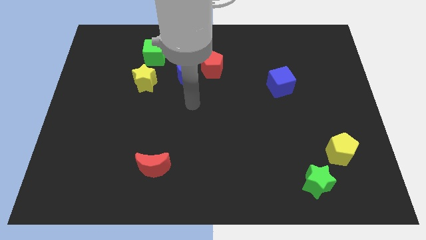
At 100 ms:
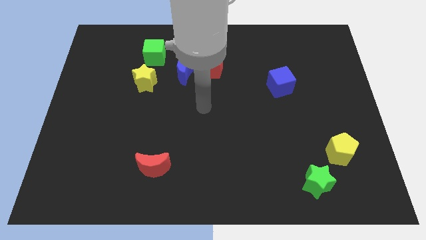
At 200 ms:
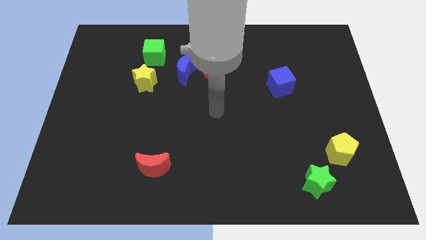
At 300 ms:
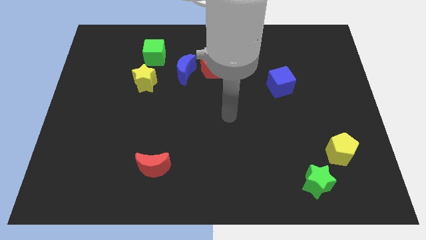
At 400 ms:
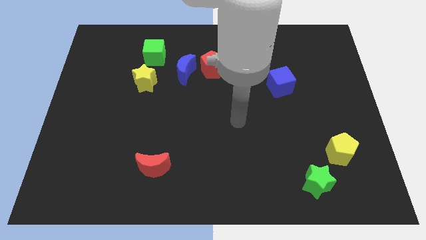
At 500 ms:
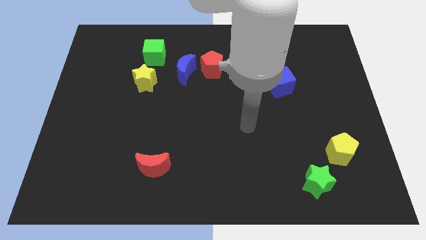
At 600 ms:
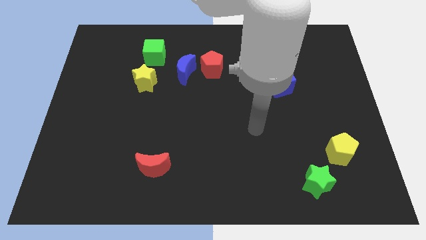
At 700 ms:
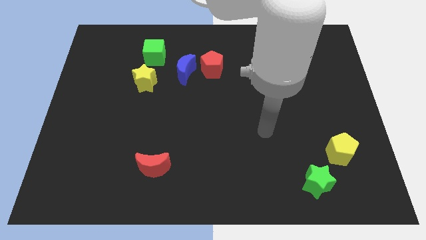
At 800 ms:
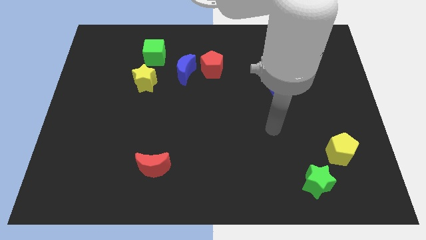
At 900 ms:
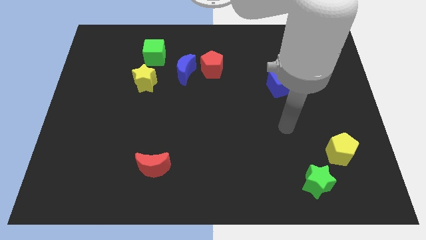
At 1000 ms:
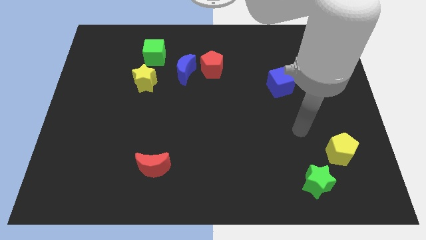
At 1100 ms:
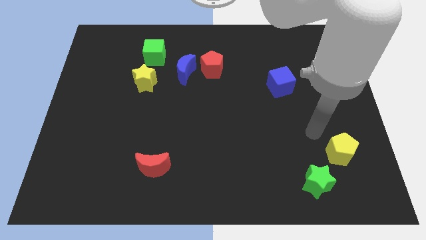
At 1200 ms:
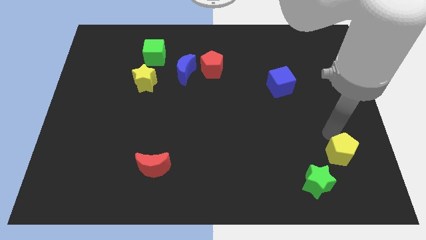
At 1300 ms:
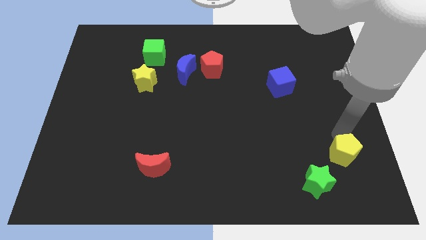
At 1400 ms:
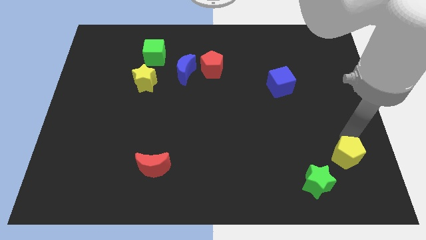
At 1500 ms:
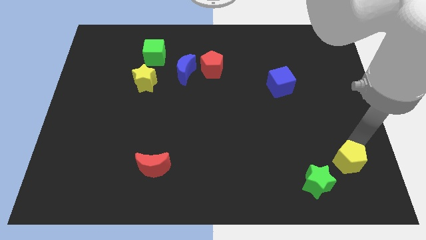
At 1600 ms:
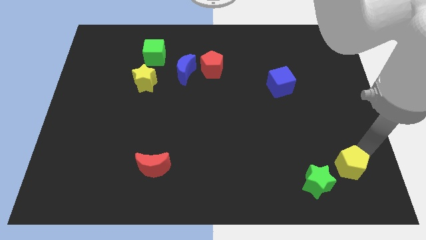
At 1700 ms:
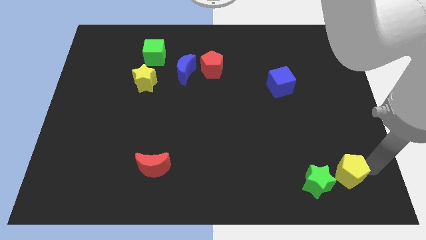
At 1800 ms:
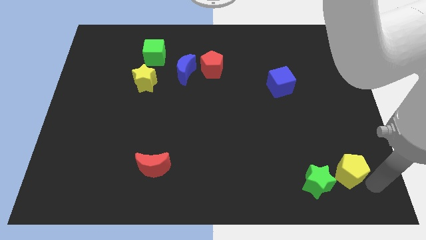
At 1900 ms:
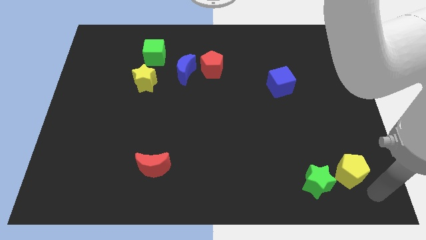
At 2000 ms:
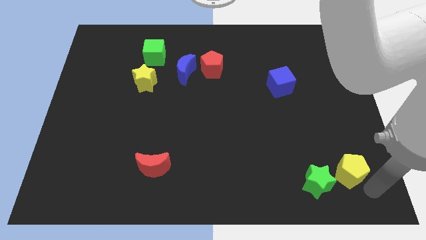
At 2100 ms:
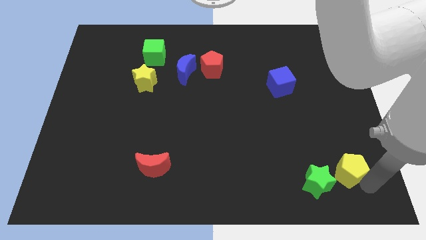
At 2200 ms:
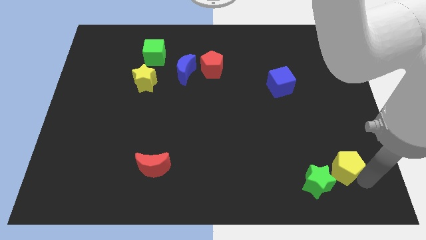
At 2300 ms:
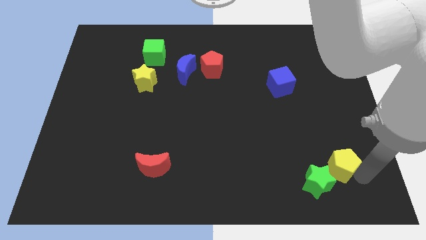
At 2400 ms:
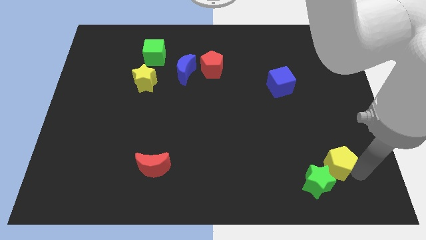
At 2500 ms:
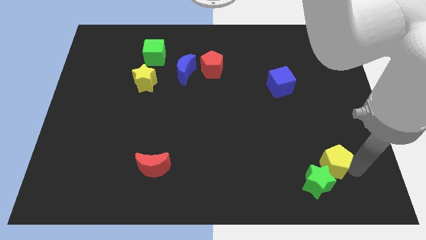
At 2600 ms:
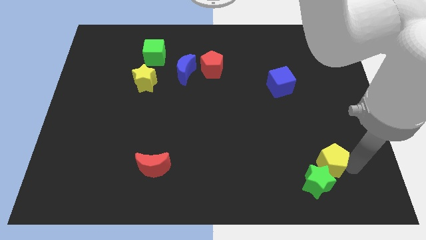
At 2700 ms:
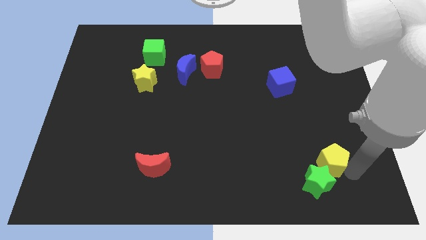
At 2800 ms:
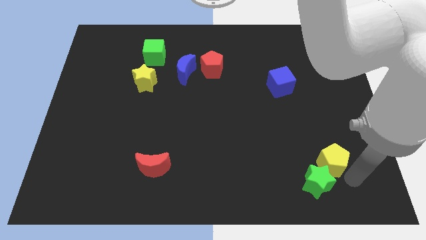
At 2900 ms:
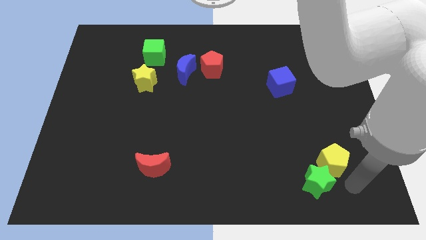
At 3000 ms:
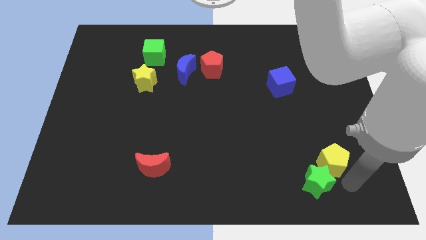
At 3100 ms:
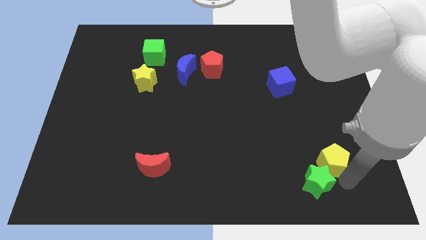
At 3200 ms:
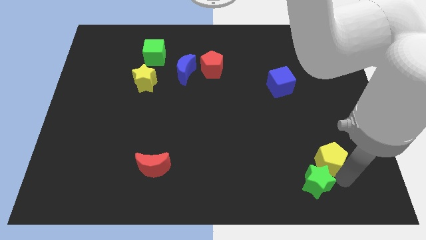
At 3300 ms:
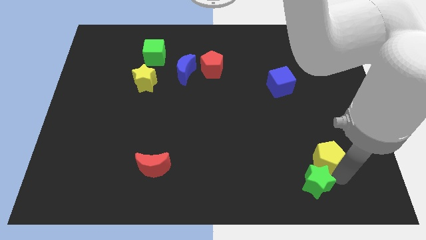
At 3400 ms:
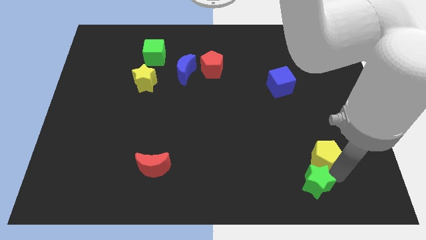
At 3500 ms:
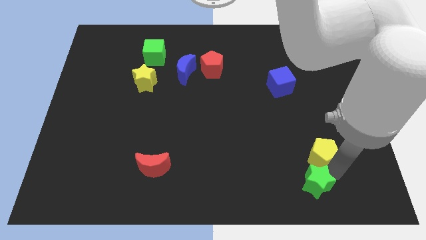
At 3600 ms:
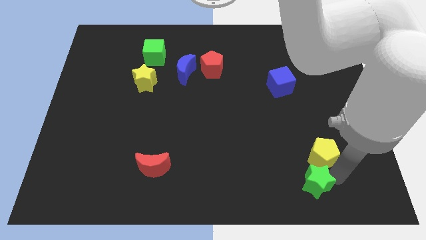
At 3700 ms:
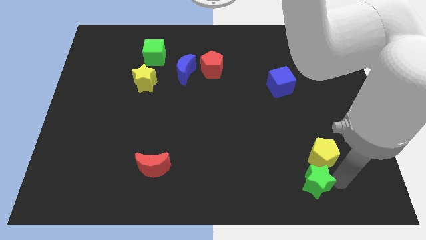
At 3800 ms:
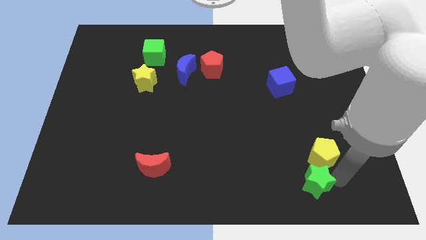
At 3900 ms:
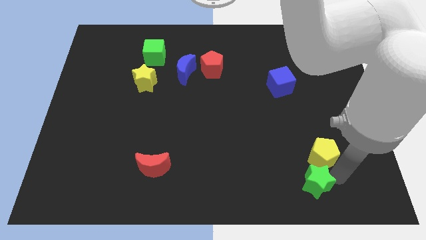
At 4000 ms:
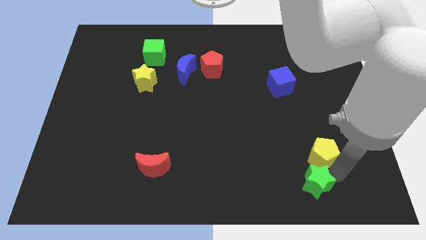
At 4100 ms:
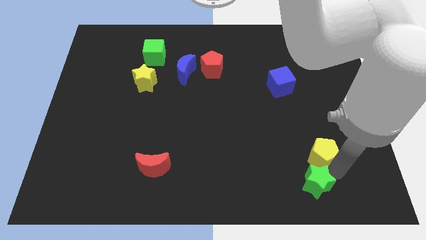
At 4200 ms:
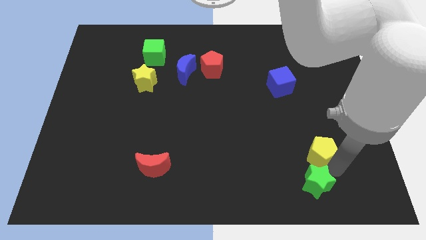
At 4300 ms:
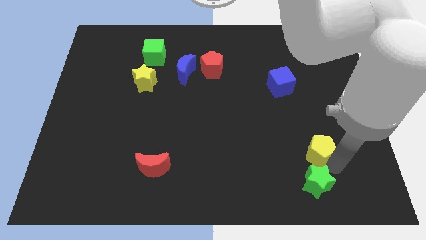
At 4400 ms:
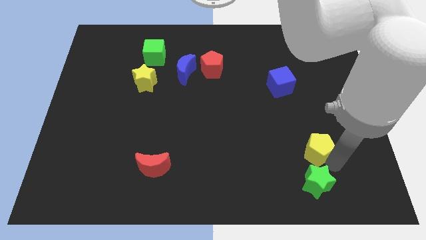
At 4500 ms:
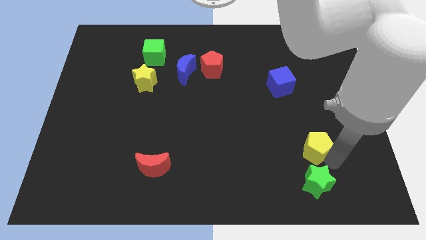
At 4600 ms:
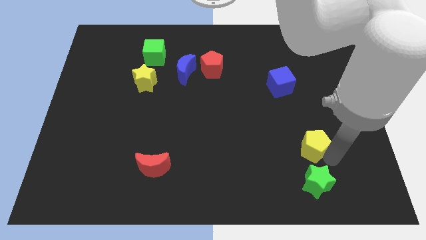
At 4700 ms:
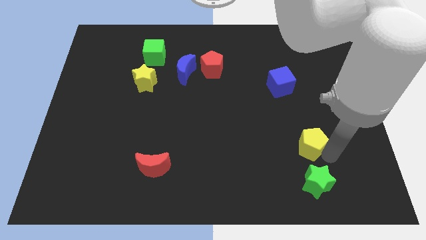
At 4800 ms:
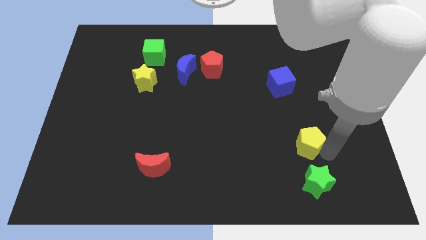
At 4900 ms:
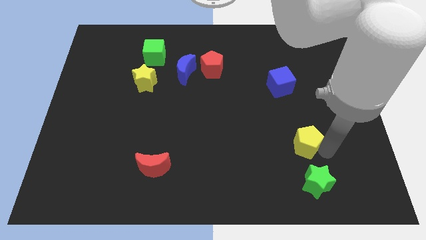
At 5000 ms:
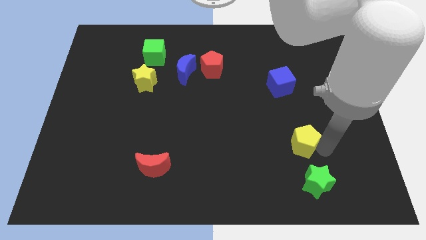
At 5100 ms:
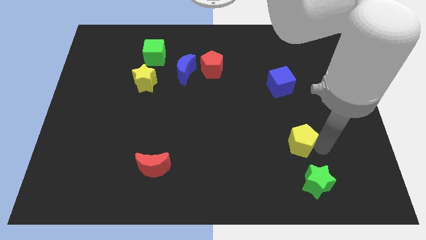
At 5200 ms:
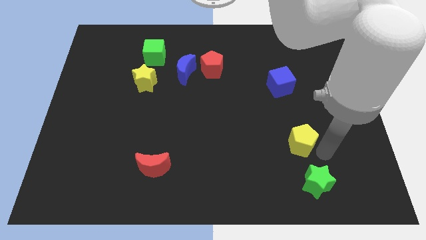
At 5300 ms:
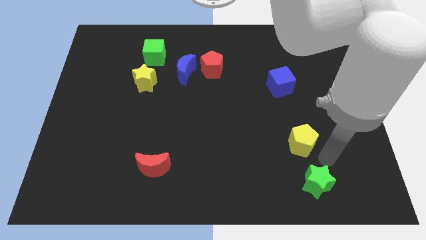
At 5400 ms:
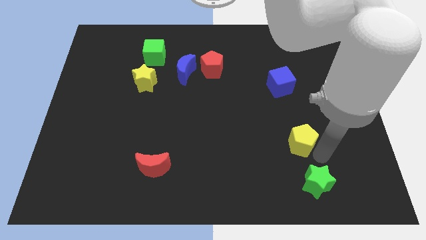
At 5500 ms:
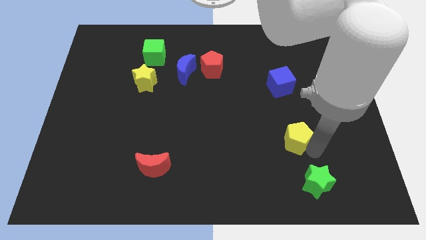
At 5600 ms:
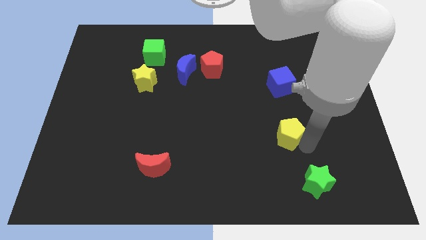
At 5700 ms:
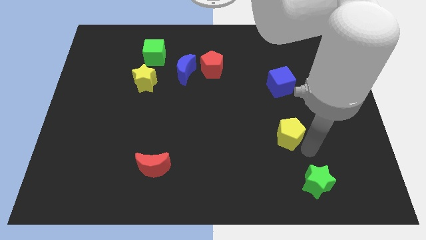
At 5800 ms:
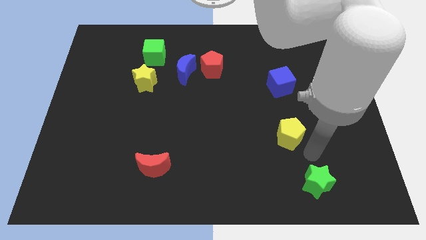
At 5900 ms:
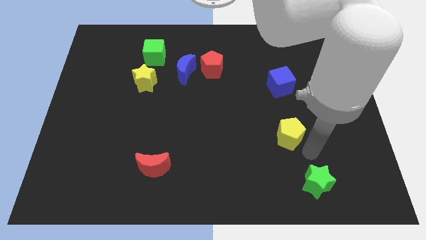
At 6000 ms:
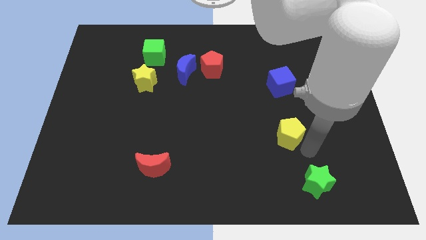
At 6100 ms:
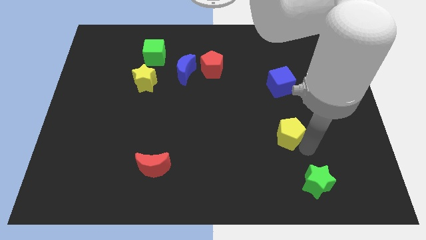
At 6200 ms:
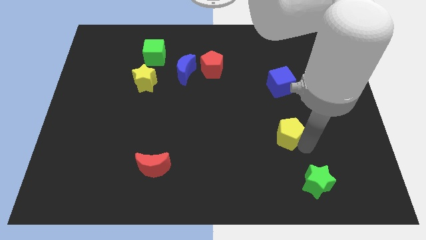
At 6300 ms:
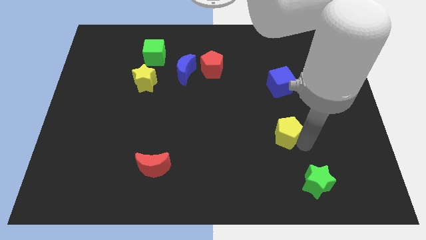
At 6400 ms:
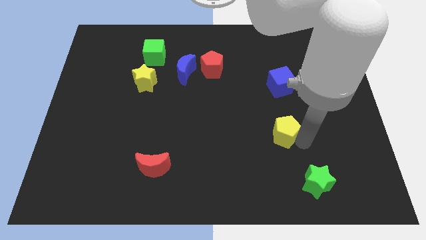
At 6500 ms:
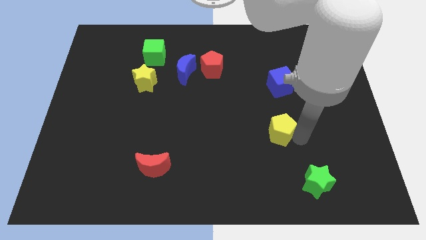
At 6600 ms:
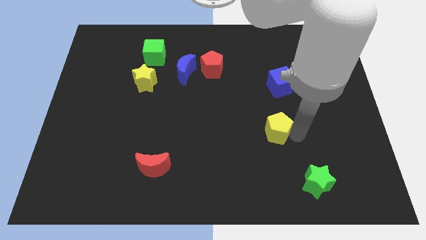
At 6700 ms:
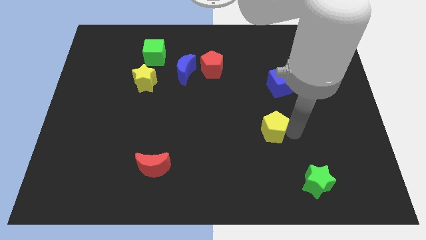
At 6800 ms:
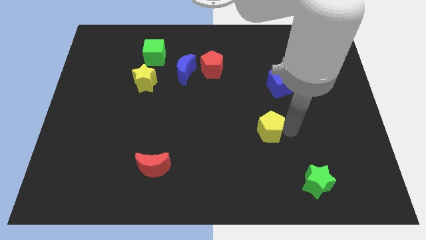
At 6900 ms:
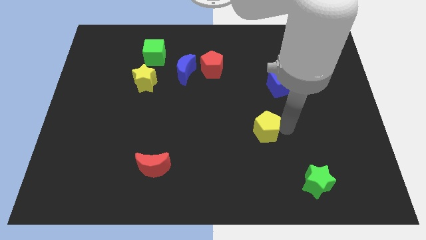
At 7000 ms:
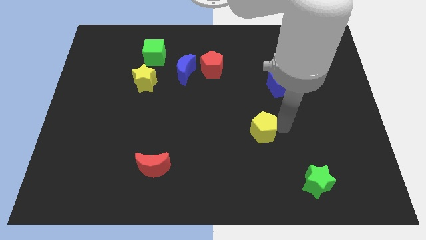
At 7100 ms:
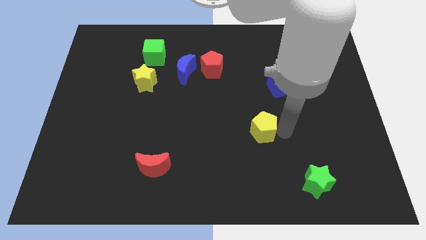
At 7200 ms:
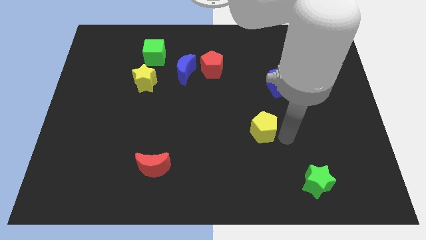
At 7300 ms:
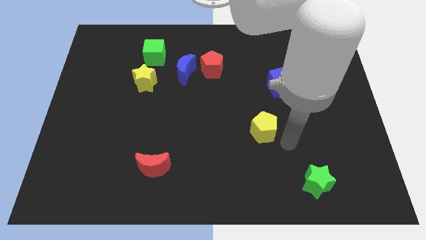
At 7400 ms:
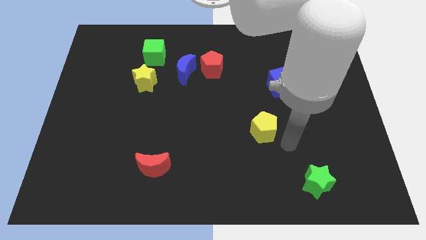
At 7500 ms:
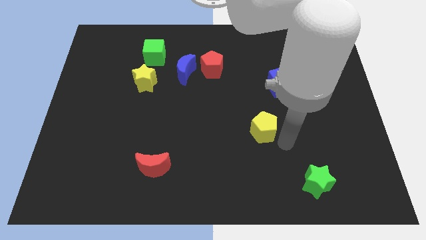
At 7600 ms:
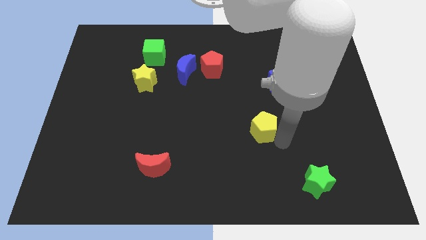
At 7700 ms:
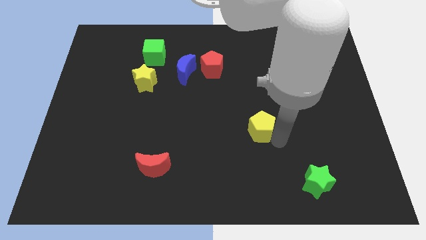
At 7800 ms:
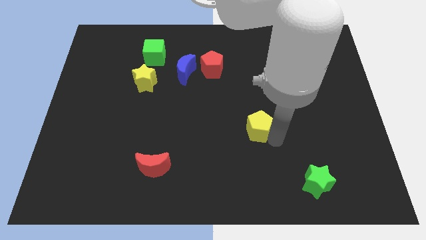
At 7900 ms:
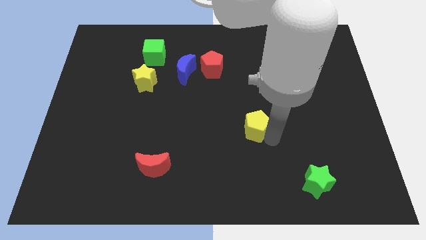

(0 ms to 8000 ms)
push the yellow pentagon to the middle
